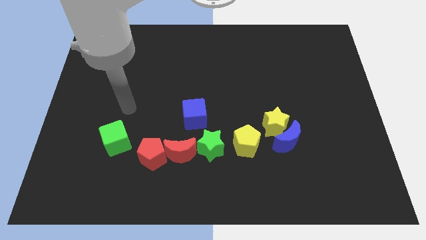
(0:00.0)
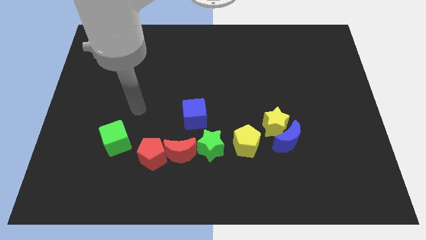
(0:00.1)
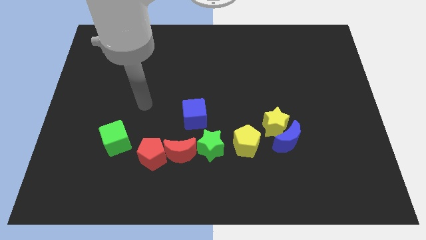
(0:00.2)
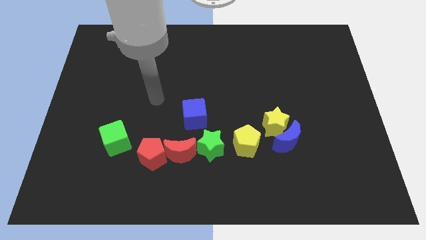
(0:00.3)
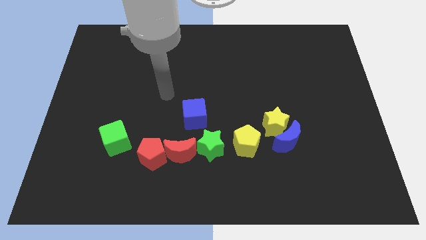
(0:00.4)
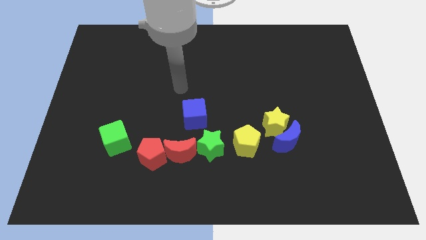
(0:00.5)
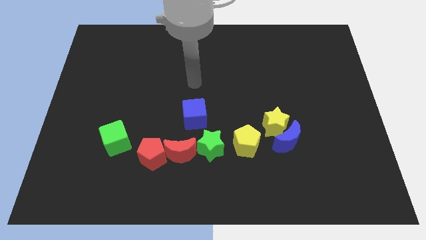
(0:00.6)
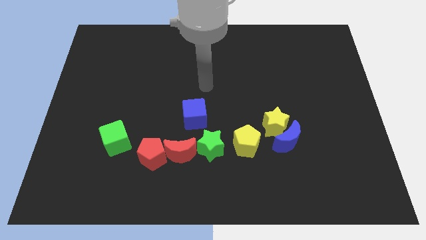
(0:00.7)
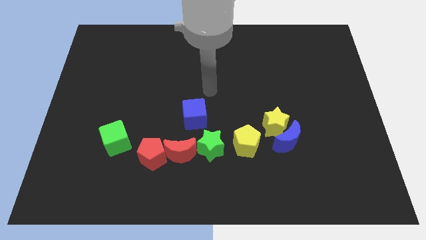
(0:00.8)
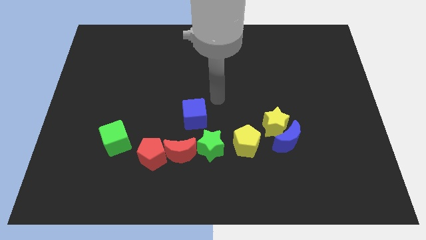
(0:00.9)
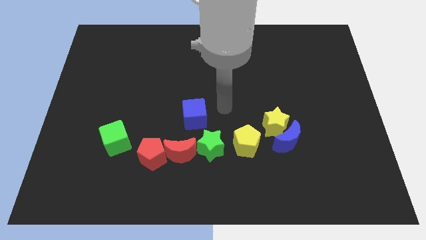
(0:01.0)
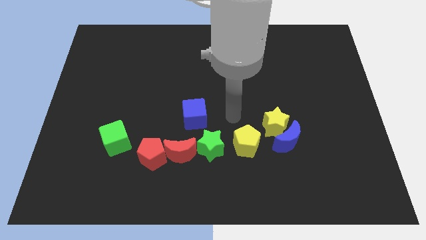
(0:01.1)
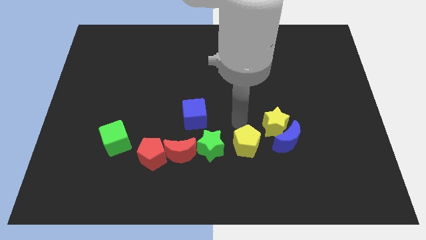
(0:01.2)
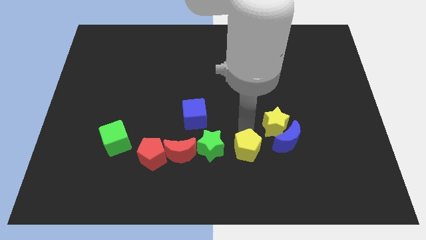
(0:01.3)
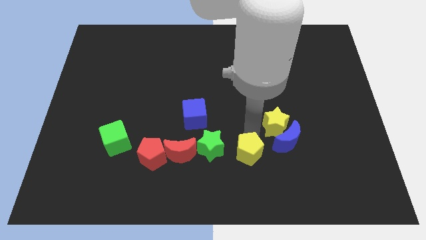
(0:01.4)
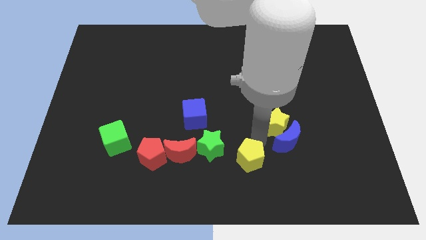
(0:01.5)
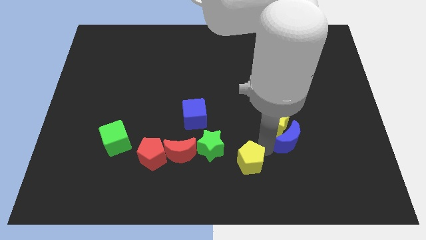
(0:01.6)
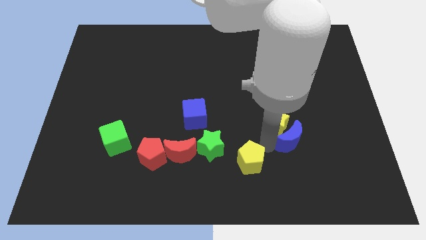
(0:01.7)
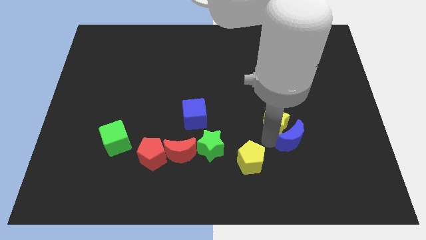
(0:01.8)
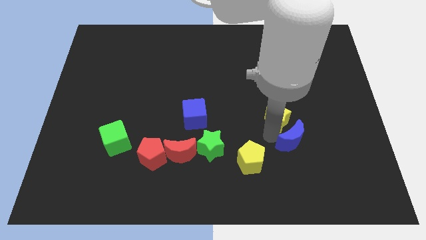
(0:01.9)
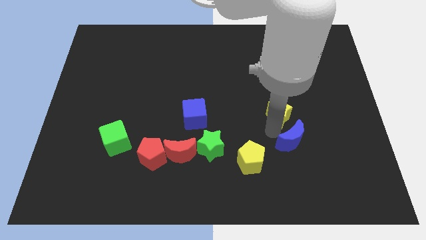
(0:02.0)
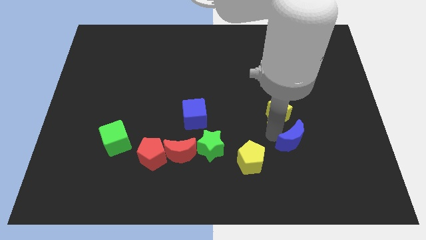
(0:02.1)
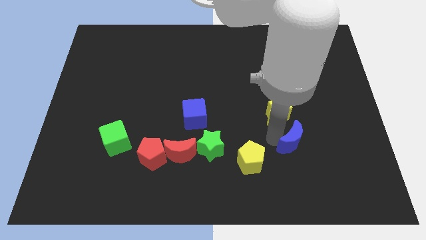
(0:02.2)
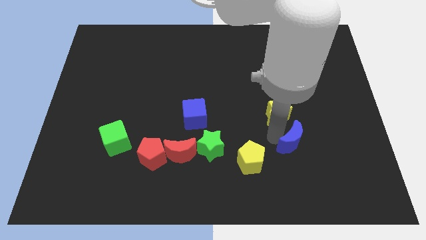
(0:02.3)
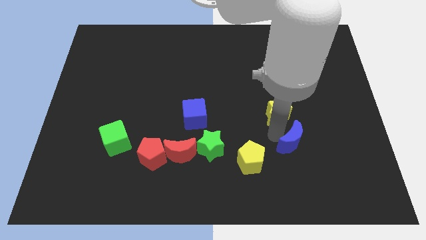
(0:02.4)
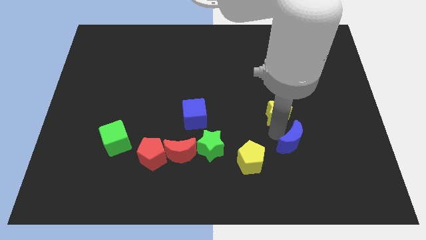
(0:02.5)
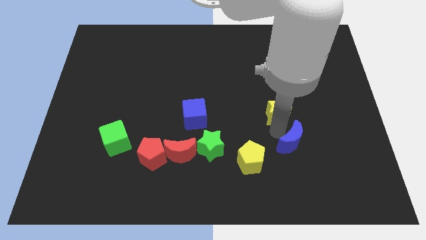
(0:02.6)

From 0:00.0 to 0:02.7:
separate the yellow star from the blue moon and yellow pentagon

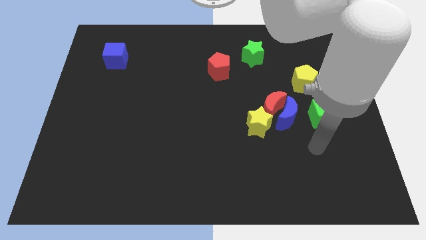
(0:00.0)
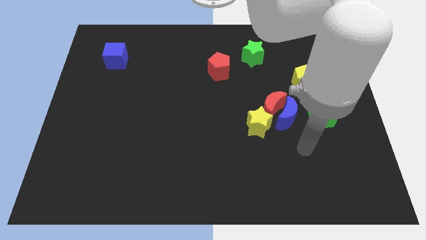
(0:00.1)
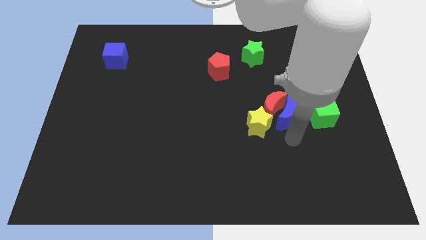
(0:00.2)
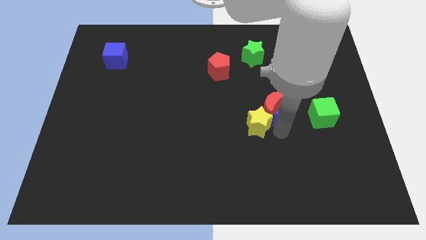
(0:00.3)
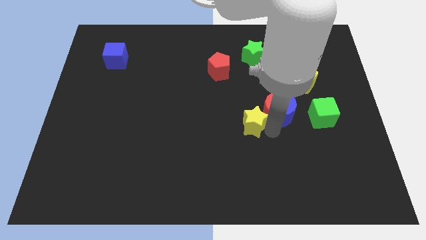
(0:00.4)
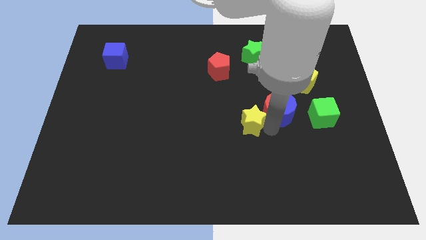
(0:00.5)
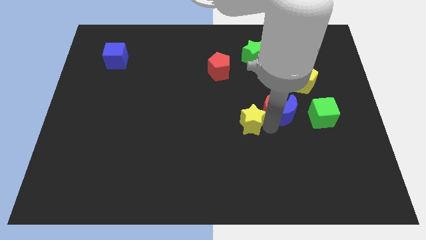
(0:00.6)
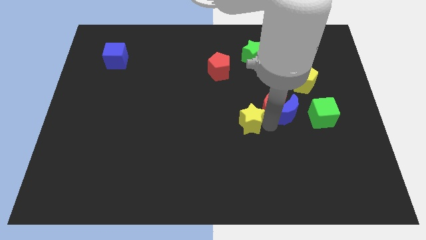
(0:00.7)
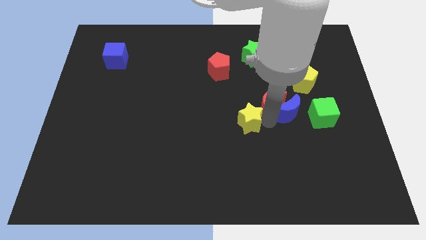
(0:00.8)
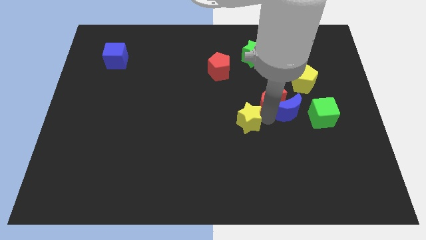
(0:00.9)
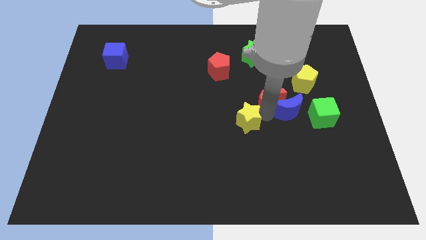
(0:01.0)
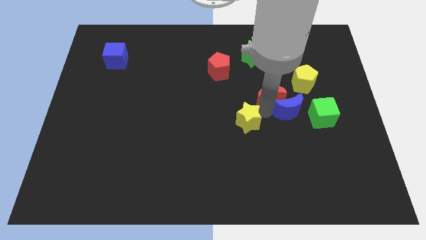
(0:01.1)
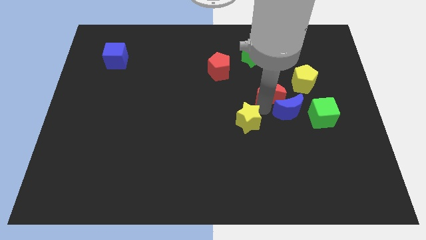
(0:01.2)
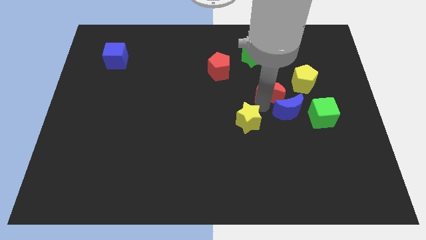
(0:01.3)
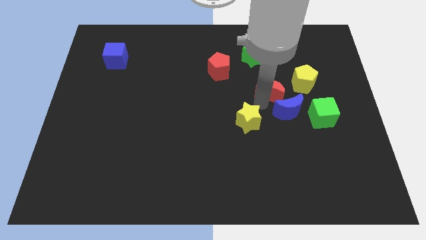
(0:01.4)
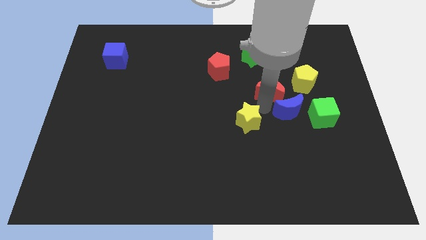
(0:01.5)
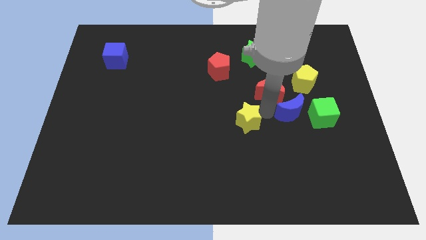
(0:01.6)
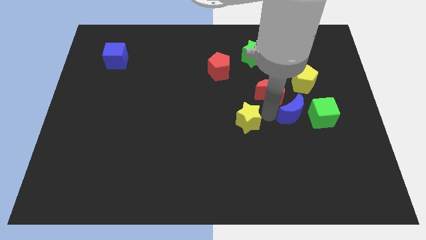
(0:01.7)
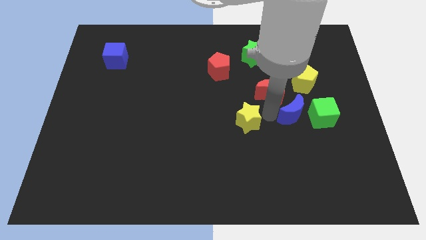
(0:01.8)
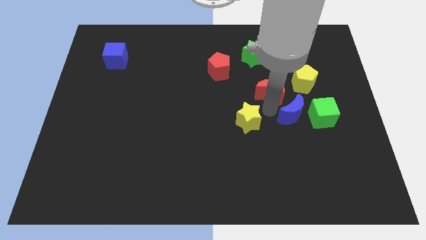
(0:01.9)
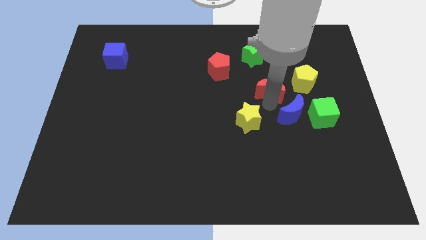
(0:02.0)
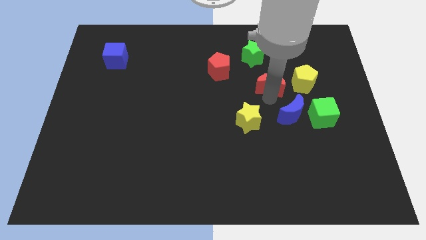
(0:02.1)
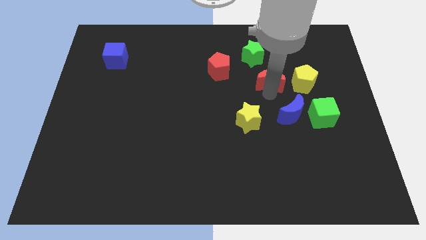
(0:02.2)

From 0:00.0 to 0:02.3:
pull the red moon apart from the blue moon and yellow star

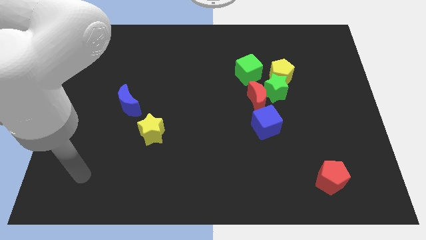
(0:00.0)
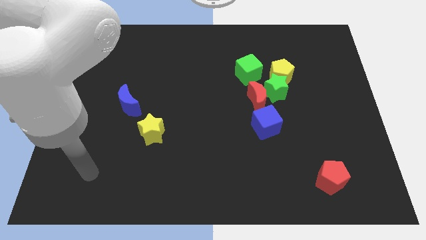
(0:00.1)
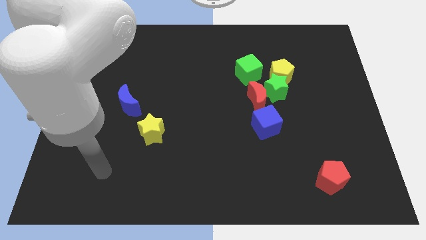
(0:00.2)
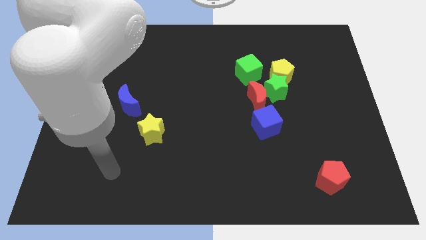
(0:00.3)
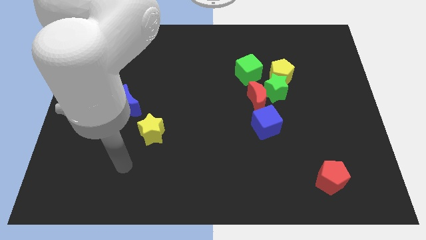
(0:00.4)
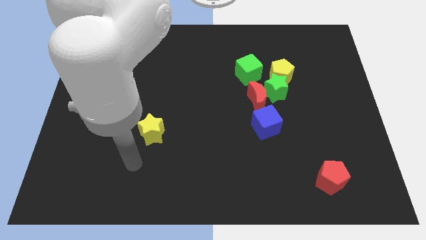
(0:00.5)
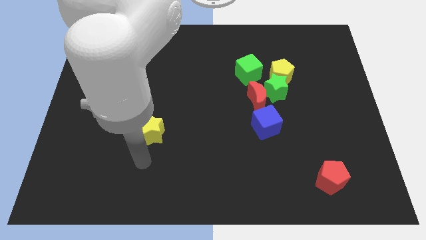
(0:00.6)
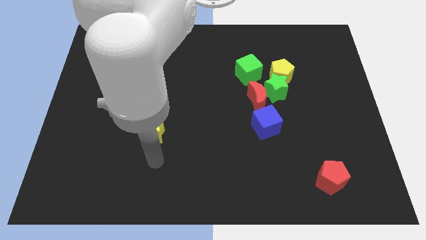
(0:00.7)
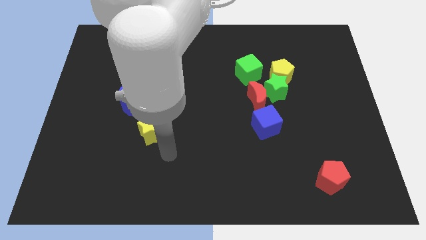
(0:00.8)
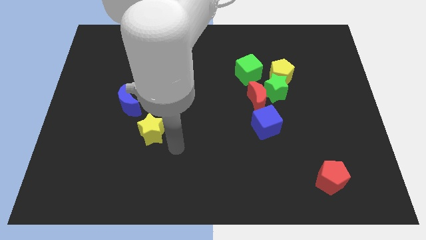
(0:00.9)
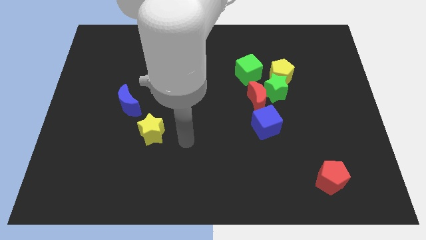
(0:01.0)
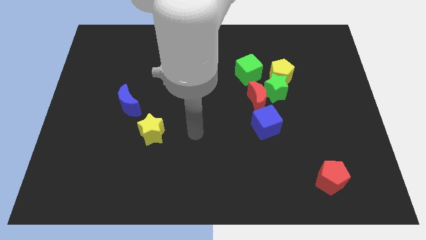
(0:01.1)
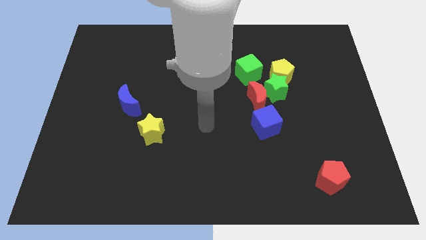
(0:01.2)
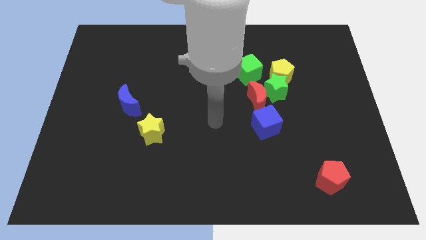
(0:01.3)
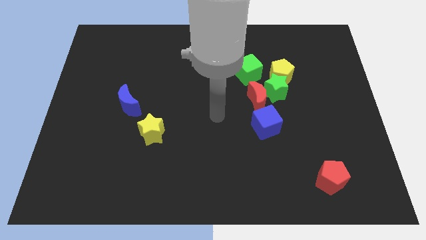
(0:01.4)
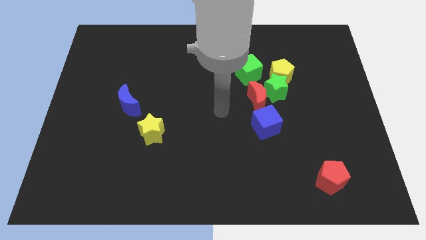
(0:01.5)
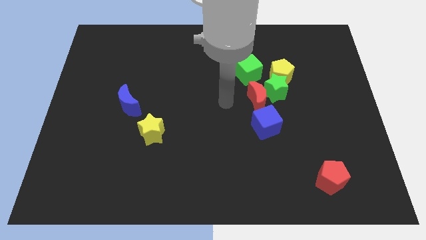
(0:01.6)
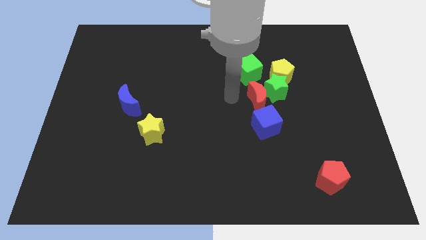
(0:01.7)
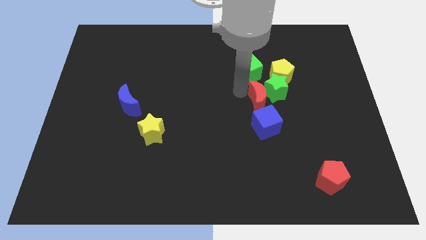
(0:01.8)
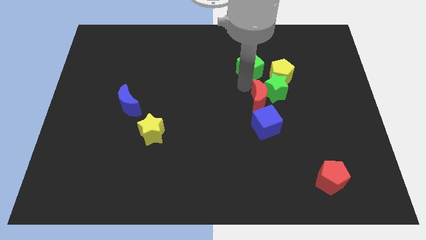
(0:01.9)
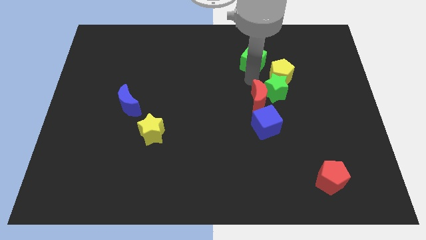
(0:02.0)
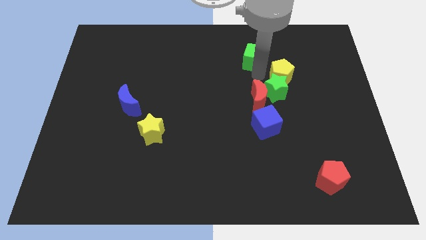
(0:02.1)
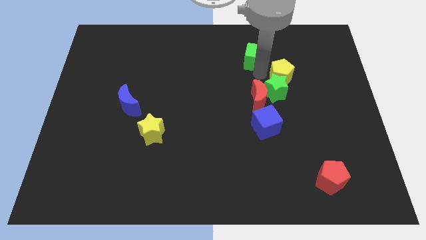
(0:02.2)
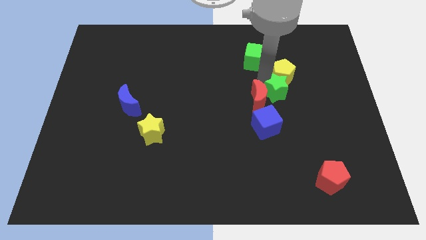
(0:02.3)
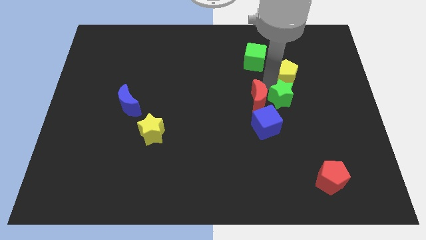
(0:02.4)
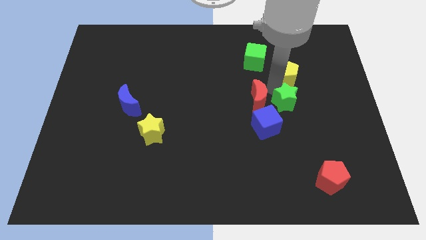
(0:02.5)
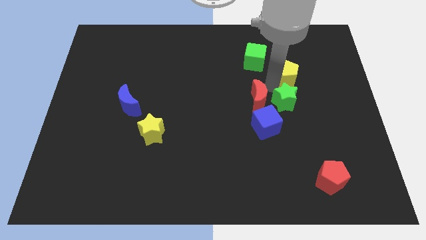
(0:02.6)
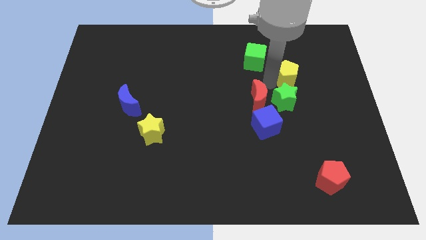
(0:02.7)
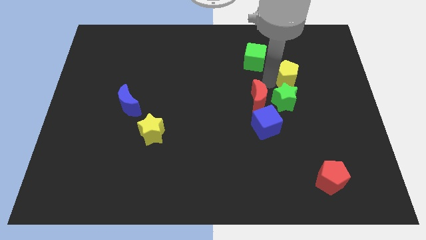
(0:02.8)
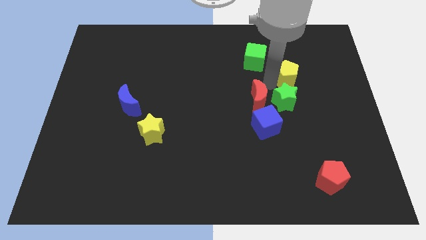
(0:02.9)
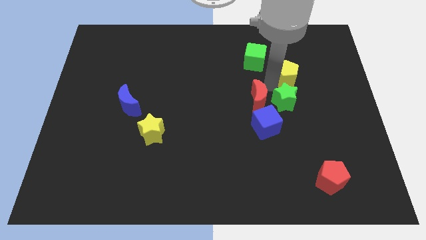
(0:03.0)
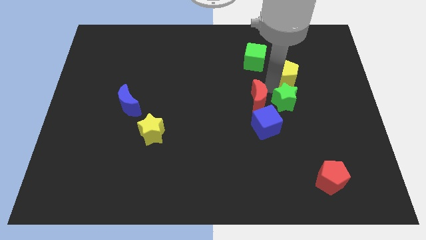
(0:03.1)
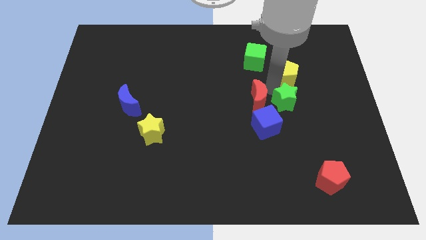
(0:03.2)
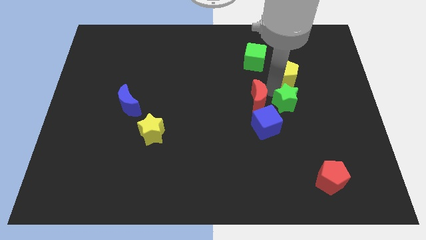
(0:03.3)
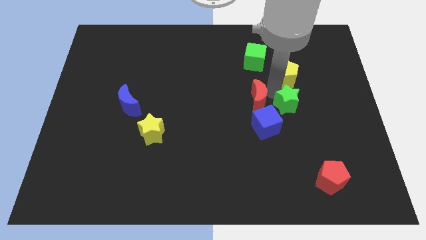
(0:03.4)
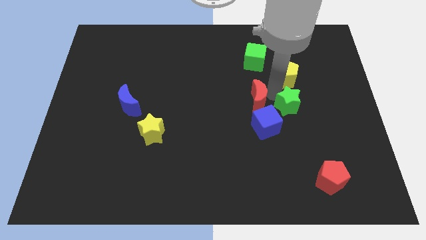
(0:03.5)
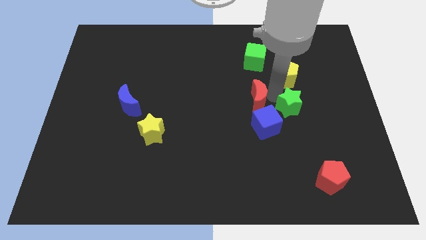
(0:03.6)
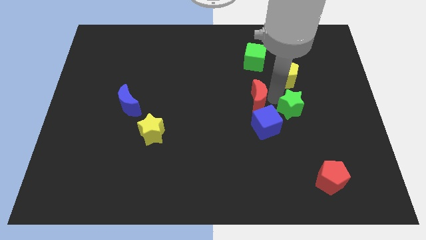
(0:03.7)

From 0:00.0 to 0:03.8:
separate the green star from the yellow pentagon, red moon, and green cube

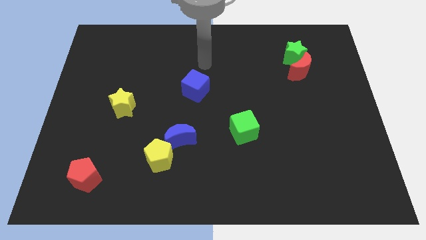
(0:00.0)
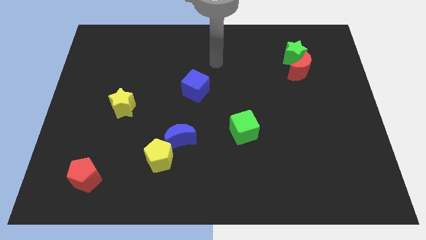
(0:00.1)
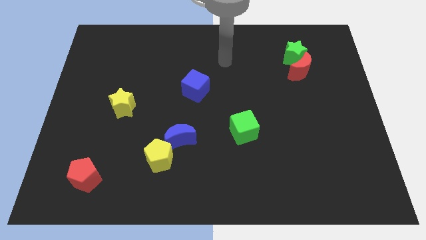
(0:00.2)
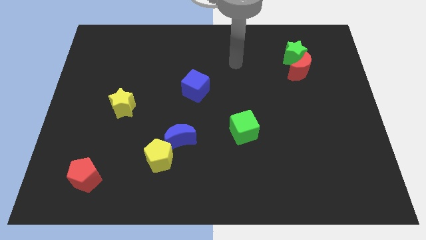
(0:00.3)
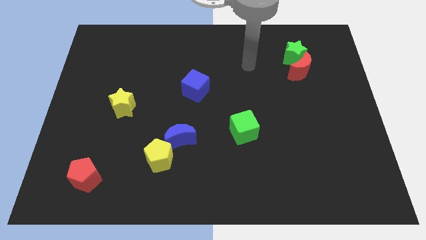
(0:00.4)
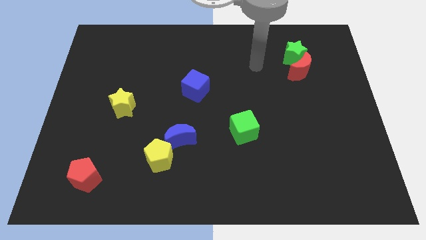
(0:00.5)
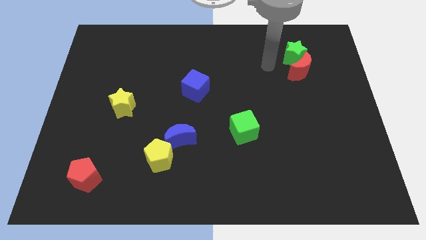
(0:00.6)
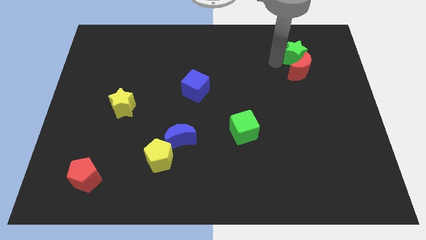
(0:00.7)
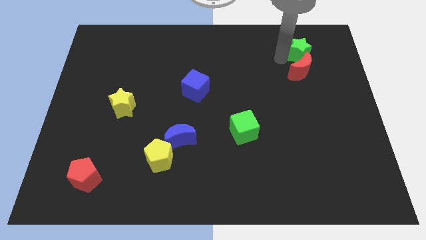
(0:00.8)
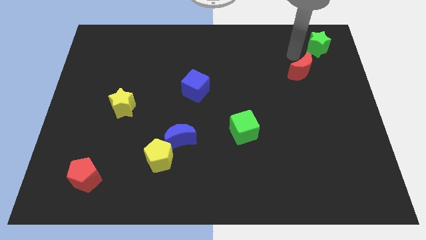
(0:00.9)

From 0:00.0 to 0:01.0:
pull the red moon apart from the green star
